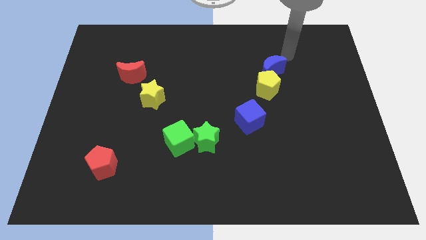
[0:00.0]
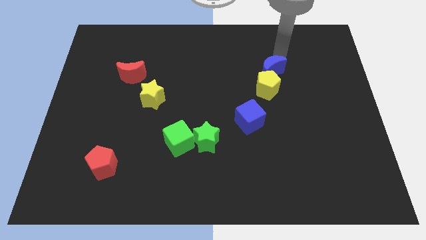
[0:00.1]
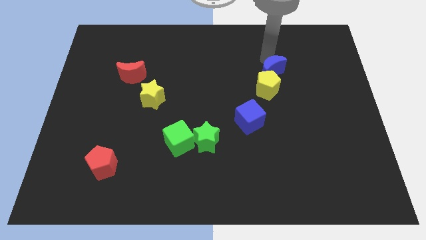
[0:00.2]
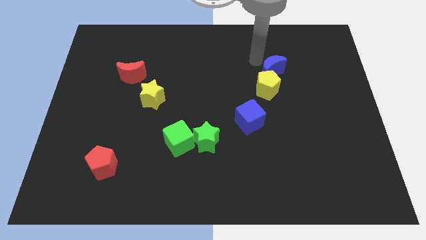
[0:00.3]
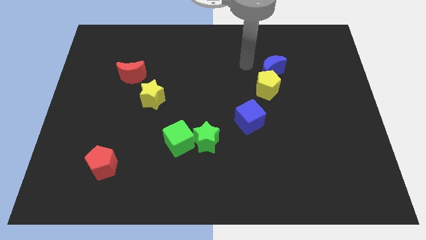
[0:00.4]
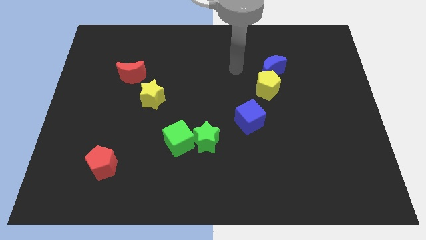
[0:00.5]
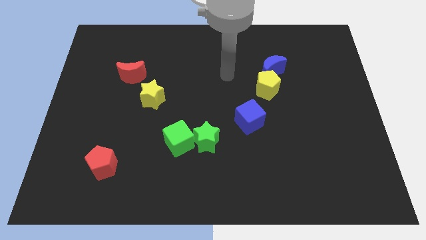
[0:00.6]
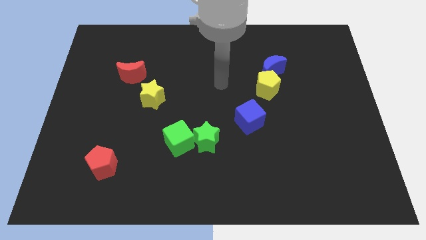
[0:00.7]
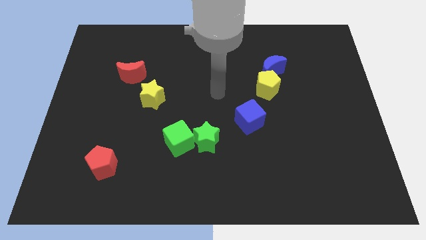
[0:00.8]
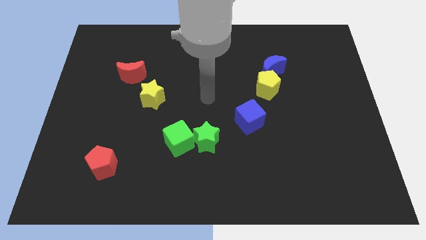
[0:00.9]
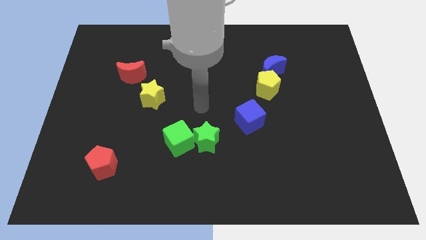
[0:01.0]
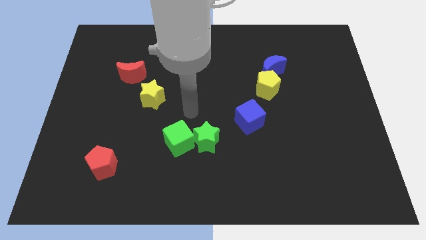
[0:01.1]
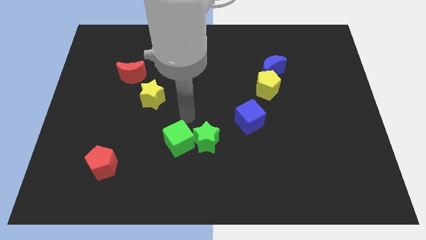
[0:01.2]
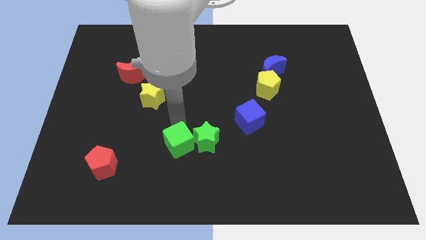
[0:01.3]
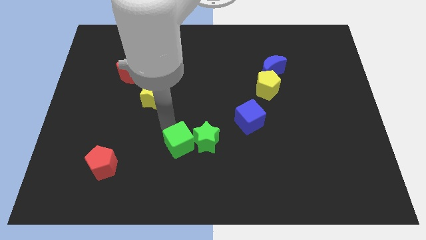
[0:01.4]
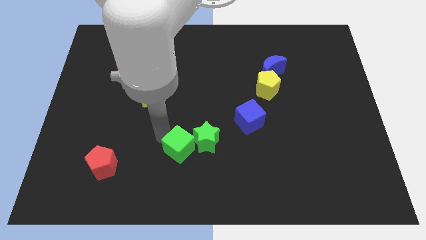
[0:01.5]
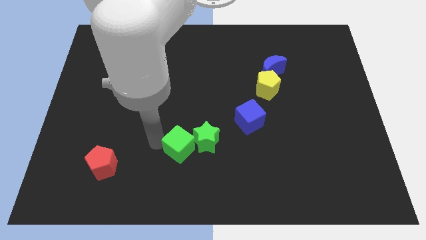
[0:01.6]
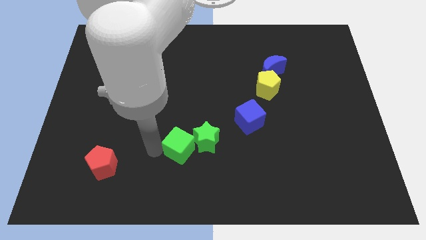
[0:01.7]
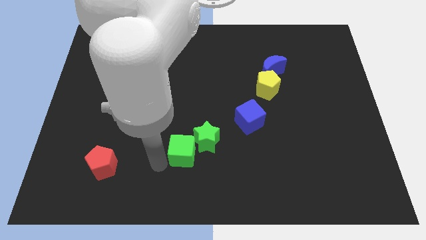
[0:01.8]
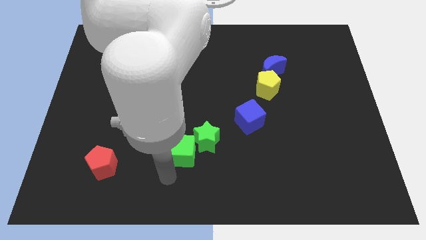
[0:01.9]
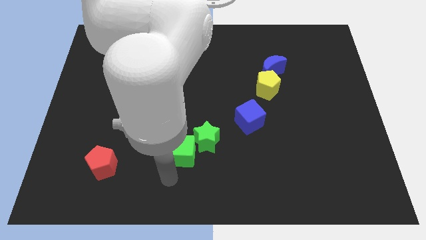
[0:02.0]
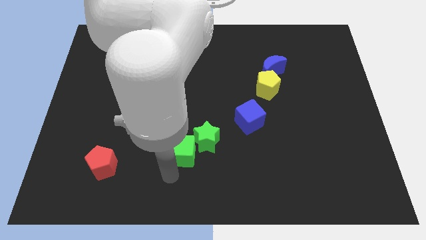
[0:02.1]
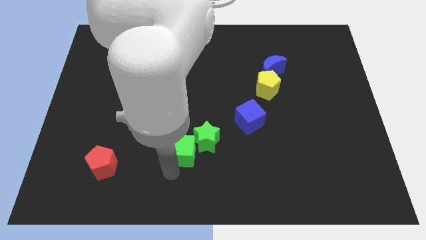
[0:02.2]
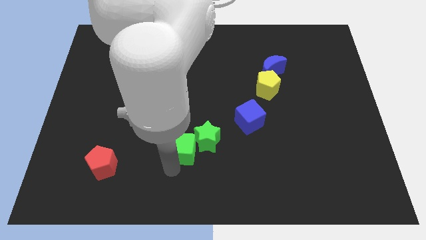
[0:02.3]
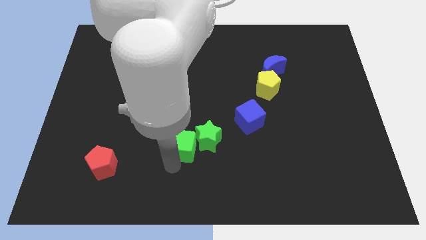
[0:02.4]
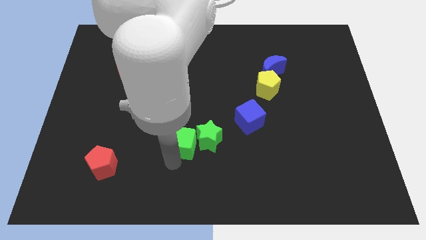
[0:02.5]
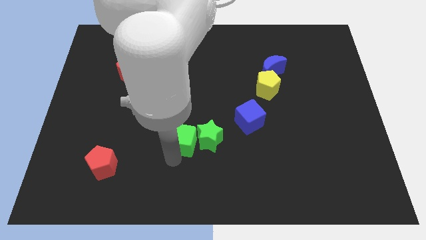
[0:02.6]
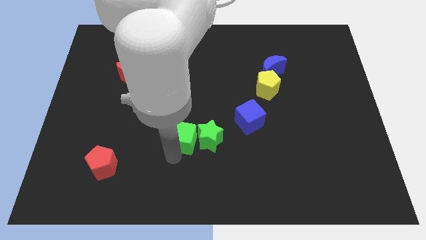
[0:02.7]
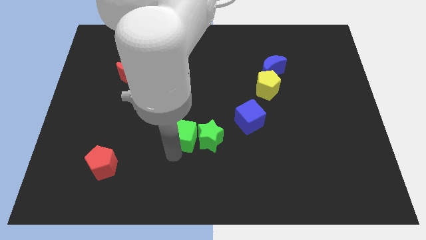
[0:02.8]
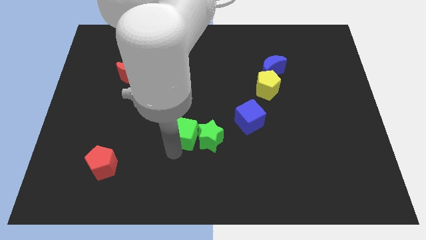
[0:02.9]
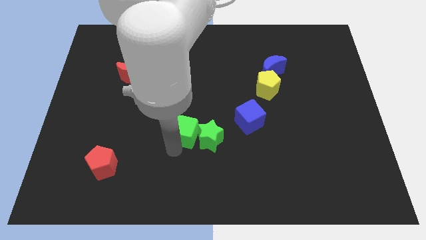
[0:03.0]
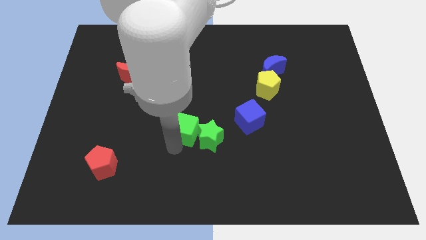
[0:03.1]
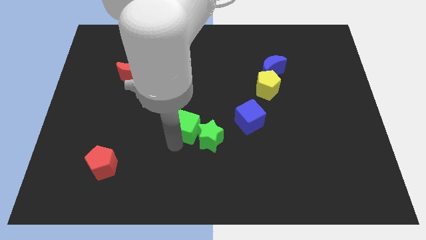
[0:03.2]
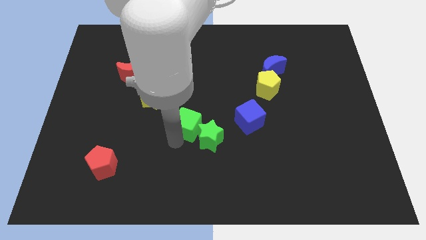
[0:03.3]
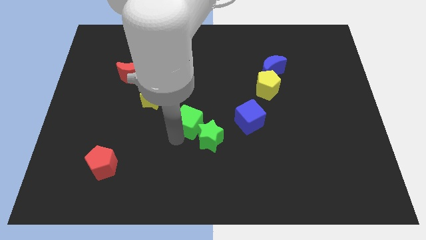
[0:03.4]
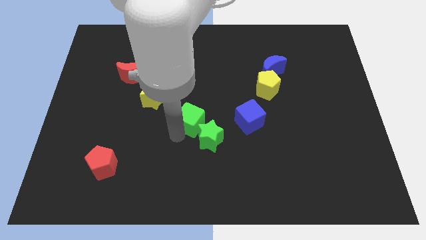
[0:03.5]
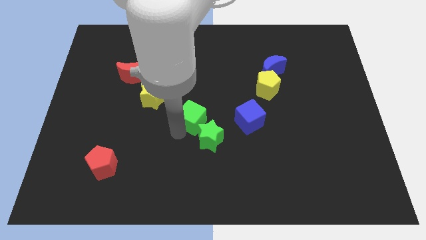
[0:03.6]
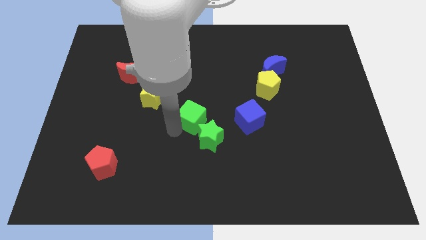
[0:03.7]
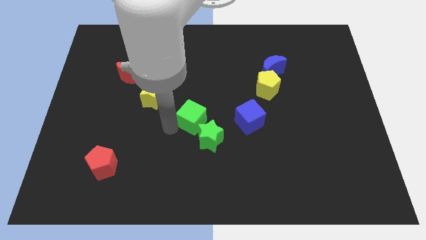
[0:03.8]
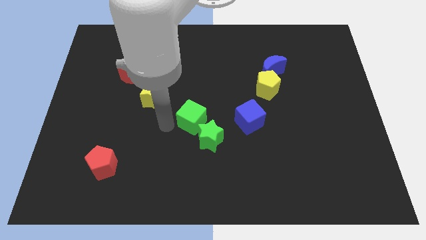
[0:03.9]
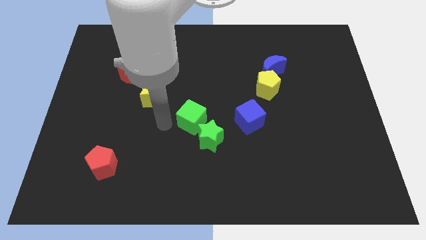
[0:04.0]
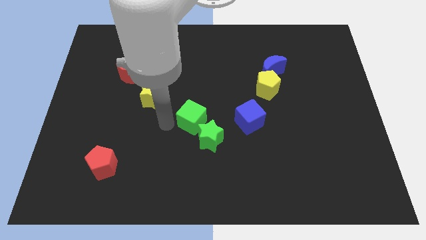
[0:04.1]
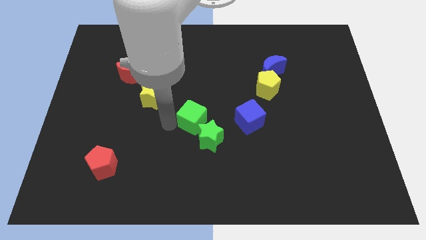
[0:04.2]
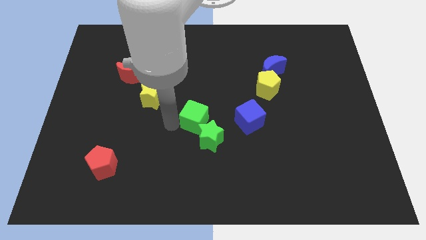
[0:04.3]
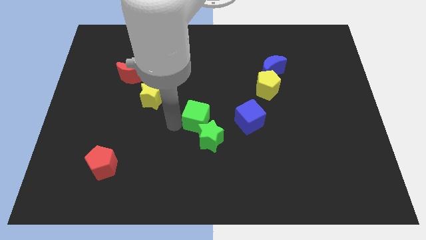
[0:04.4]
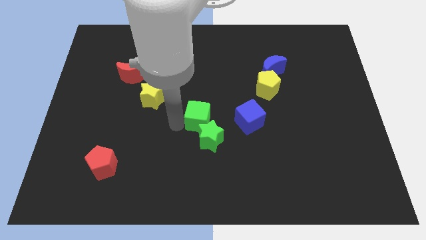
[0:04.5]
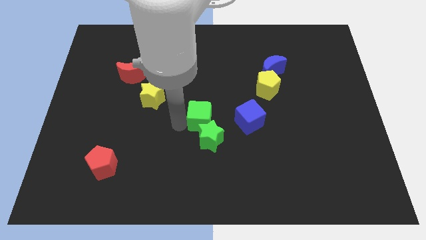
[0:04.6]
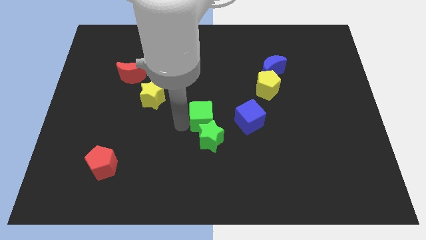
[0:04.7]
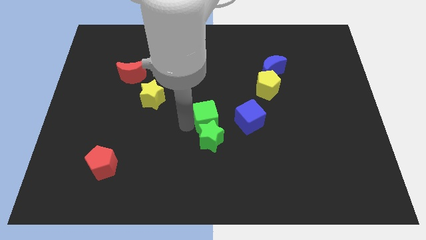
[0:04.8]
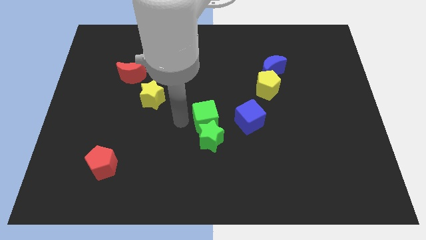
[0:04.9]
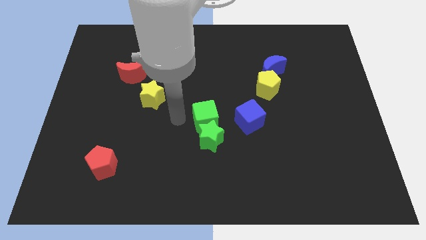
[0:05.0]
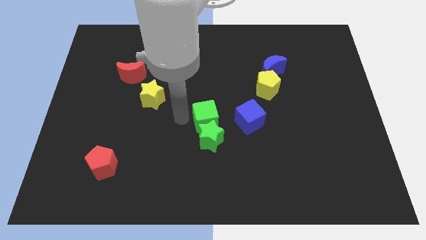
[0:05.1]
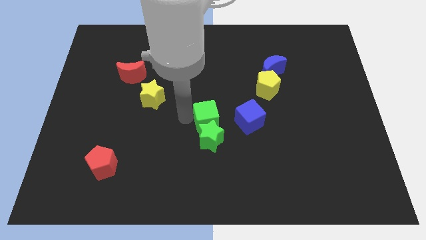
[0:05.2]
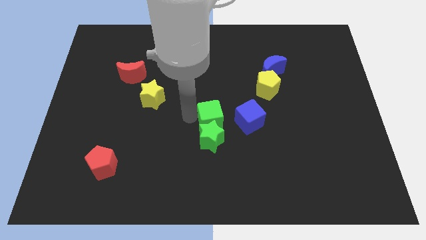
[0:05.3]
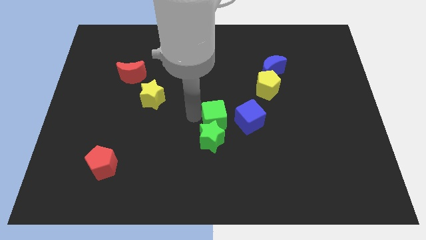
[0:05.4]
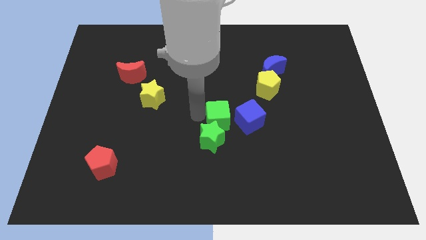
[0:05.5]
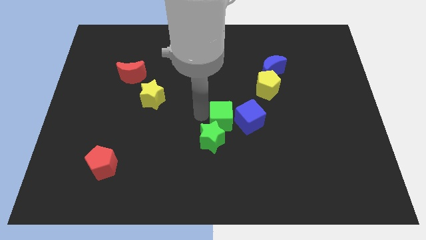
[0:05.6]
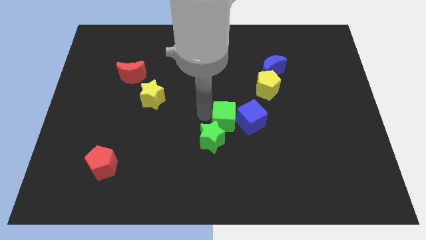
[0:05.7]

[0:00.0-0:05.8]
move the green cube close to the blue cube

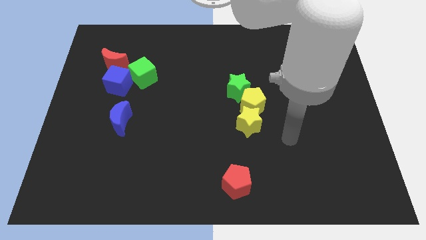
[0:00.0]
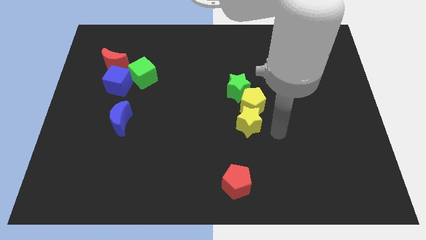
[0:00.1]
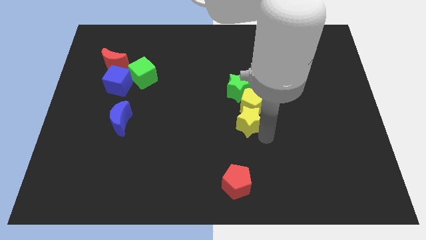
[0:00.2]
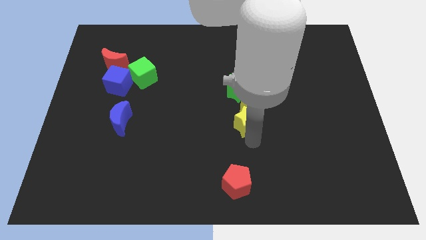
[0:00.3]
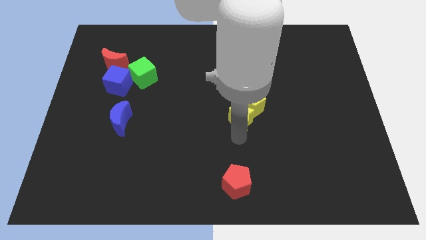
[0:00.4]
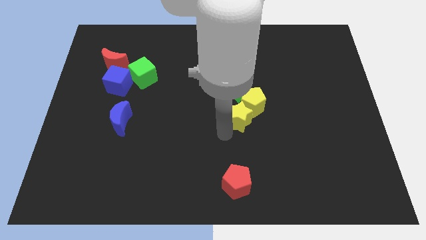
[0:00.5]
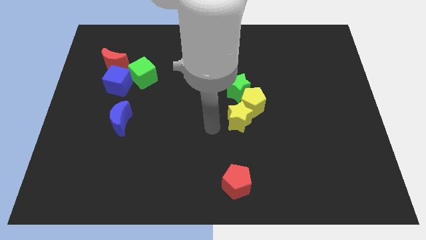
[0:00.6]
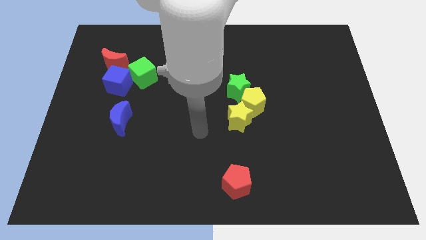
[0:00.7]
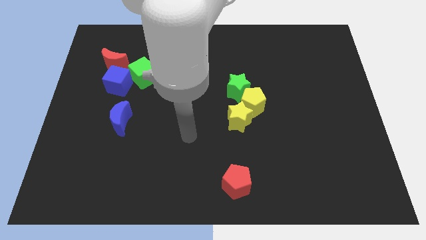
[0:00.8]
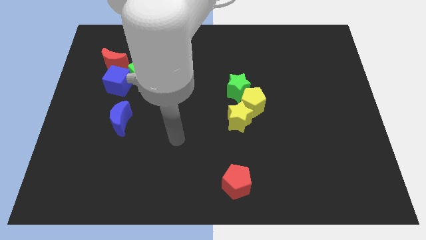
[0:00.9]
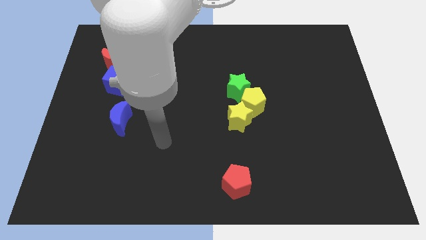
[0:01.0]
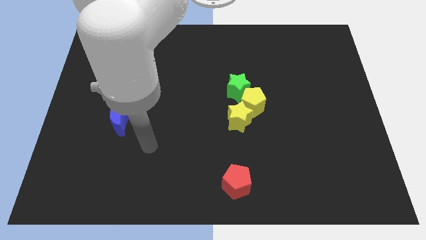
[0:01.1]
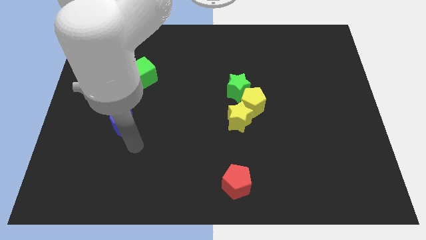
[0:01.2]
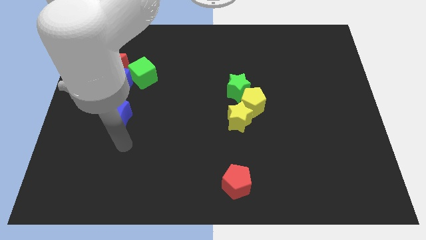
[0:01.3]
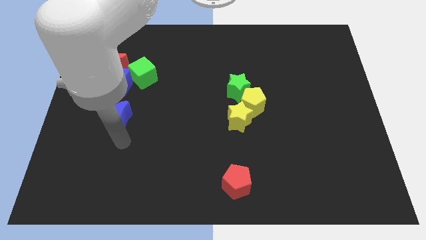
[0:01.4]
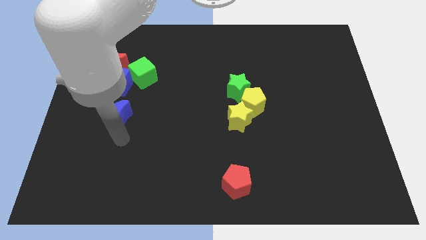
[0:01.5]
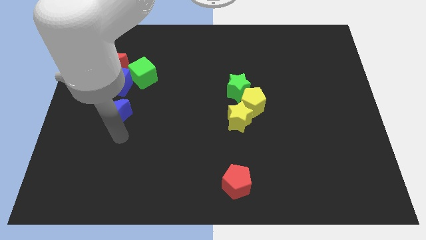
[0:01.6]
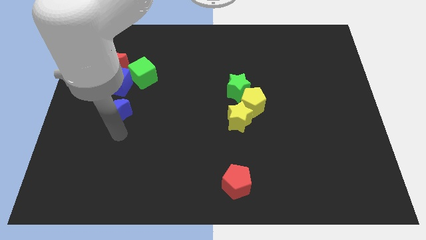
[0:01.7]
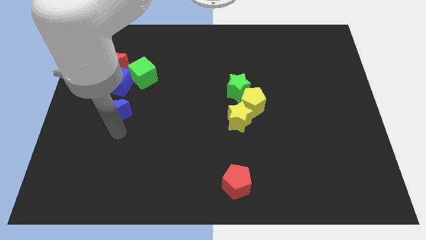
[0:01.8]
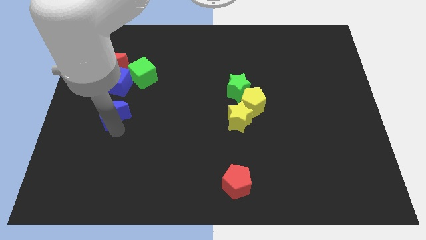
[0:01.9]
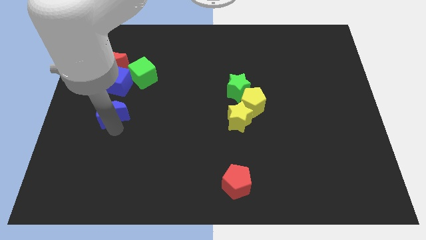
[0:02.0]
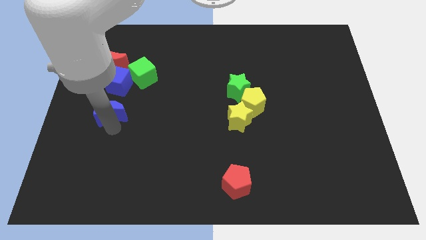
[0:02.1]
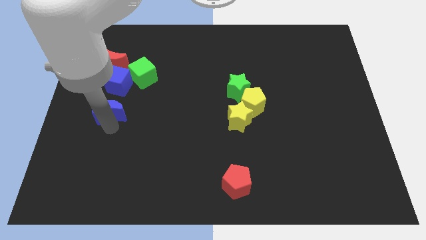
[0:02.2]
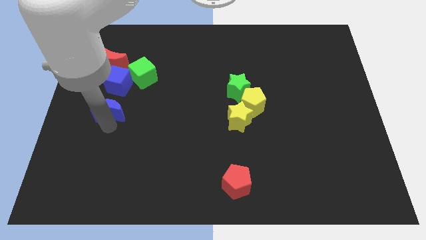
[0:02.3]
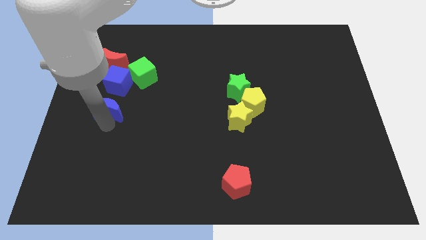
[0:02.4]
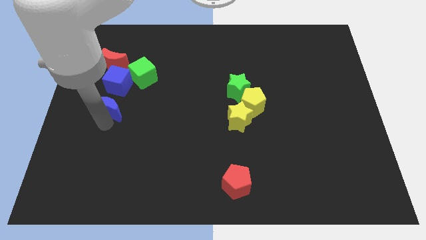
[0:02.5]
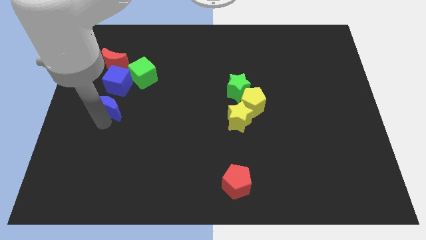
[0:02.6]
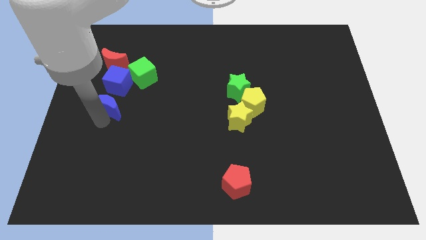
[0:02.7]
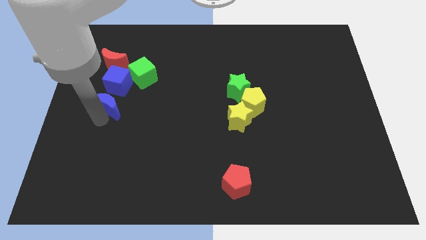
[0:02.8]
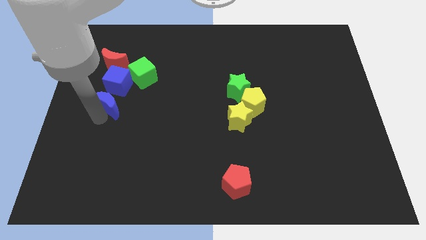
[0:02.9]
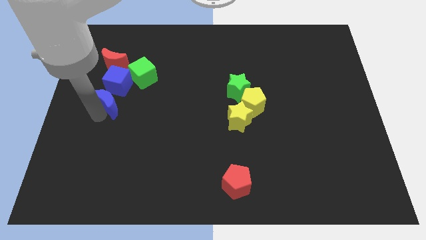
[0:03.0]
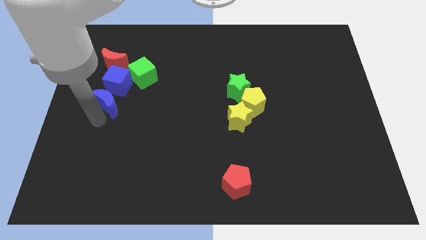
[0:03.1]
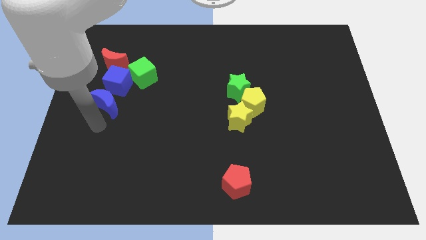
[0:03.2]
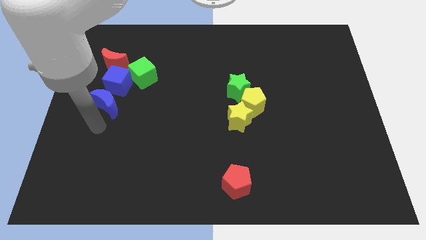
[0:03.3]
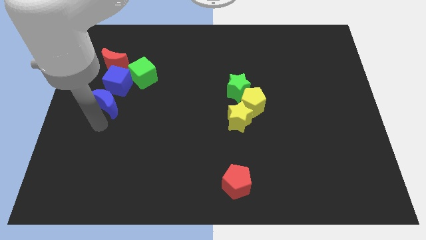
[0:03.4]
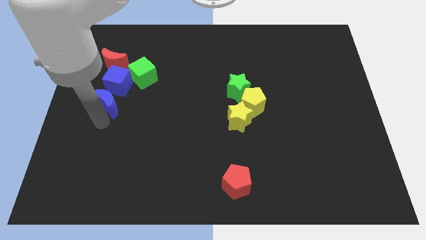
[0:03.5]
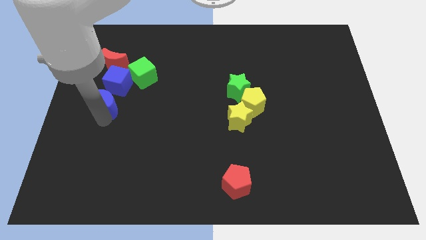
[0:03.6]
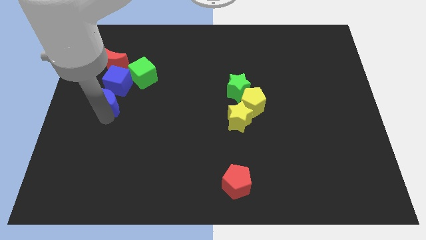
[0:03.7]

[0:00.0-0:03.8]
push the blue moon to the blue cube
